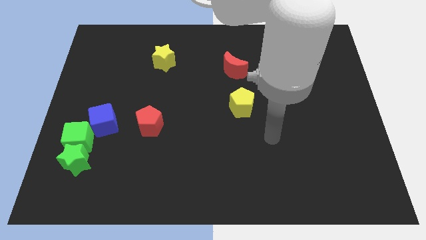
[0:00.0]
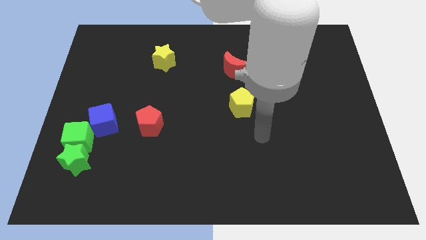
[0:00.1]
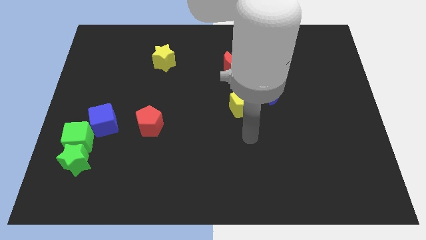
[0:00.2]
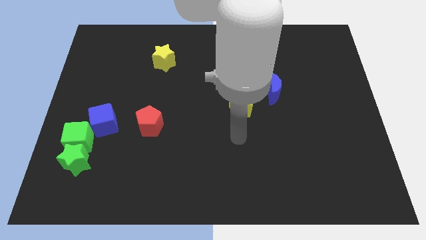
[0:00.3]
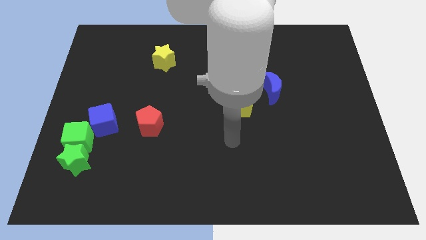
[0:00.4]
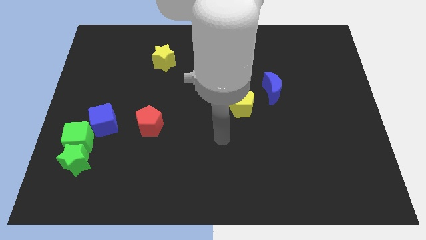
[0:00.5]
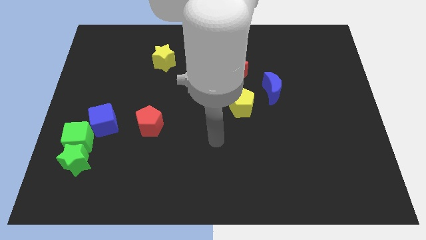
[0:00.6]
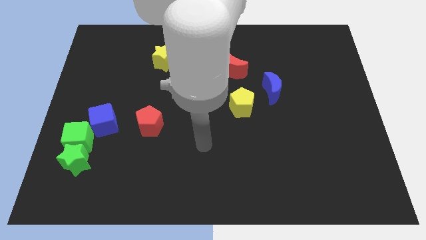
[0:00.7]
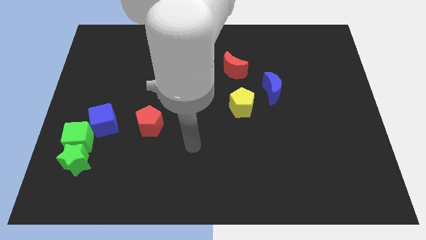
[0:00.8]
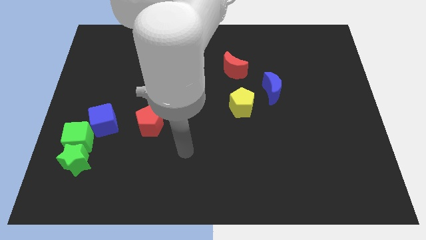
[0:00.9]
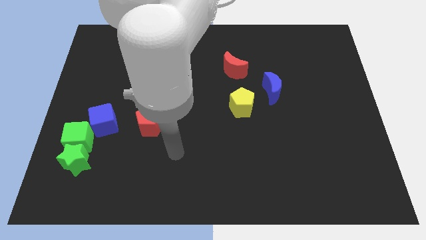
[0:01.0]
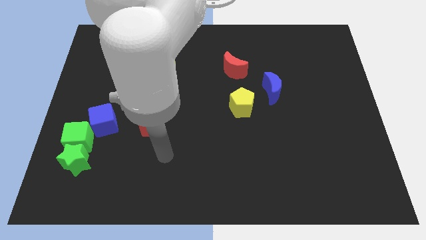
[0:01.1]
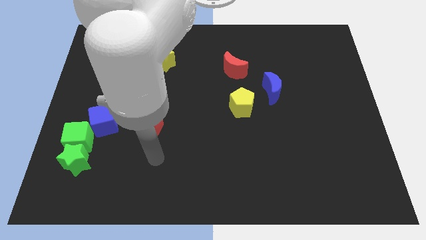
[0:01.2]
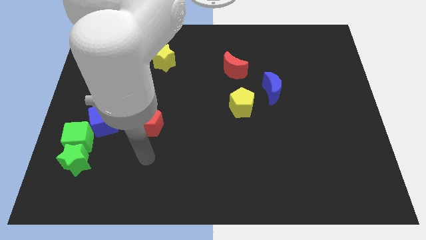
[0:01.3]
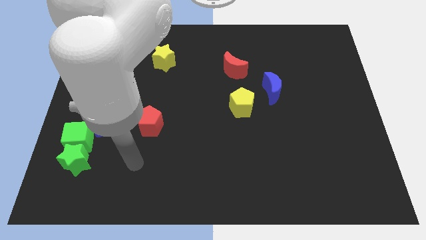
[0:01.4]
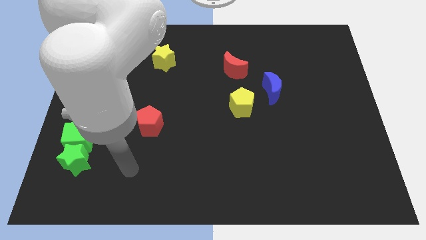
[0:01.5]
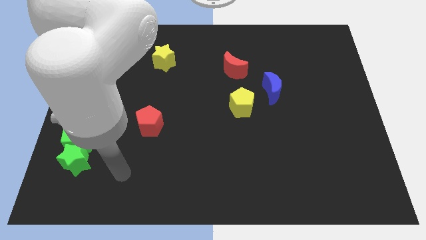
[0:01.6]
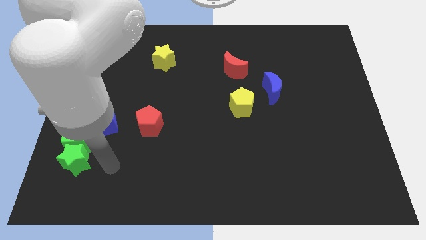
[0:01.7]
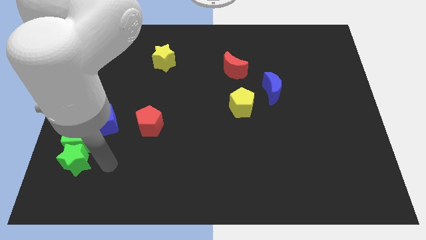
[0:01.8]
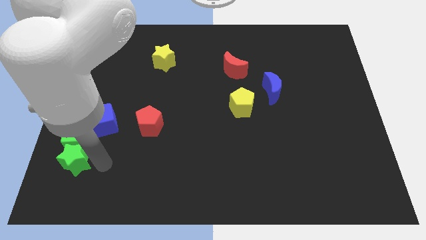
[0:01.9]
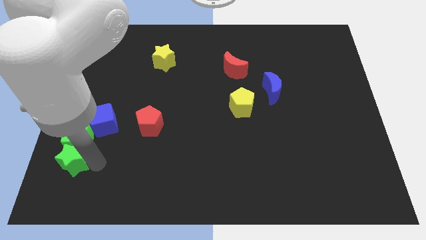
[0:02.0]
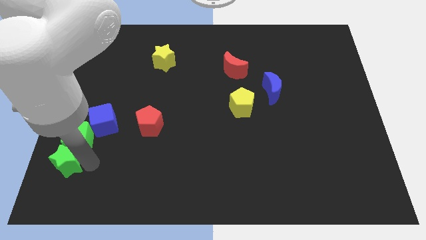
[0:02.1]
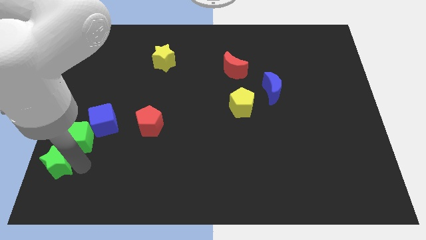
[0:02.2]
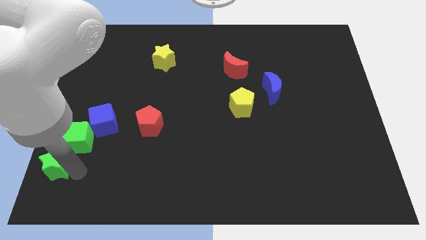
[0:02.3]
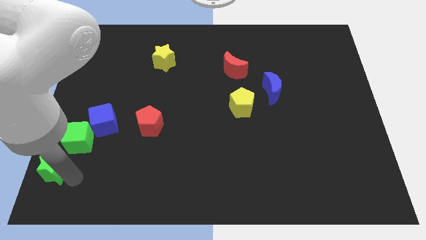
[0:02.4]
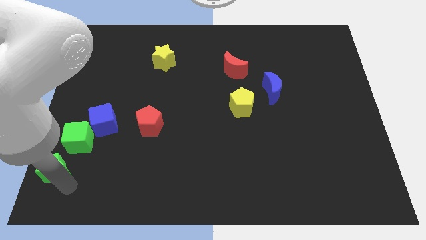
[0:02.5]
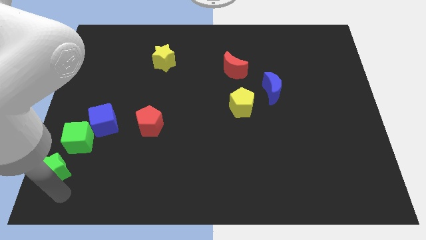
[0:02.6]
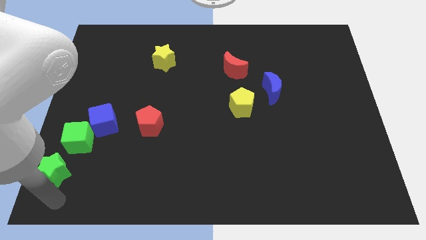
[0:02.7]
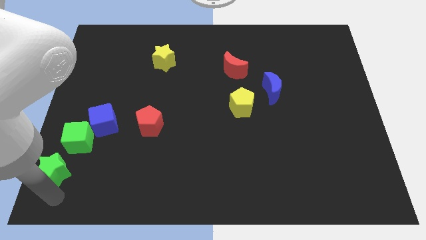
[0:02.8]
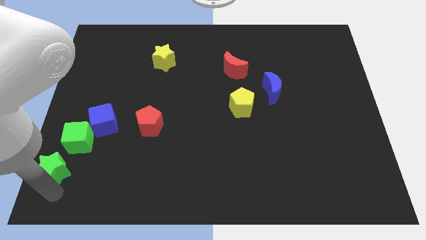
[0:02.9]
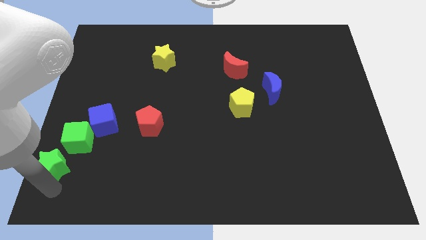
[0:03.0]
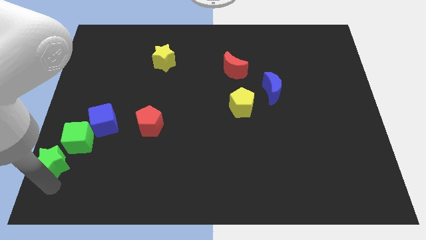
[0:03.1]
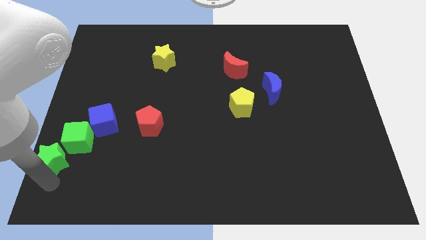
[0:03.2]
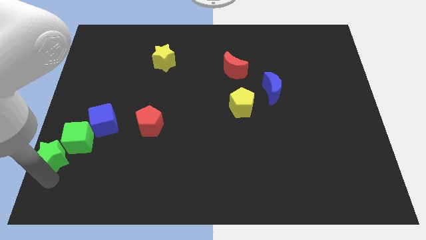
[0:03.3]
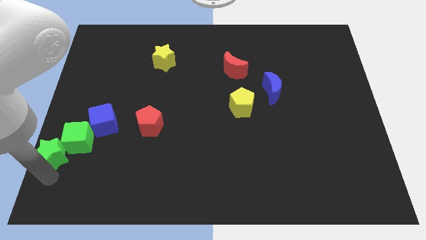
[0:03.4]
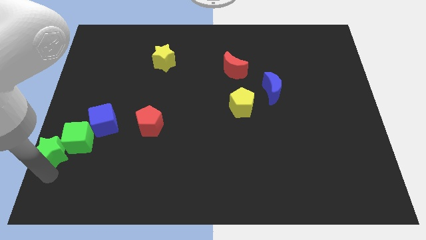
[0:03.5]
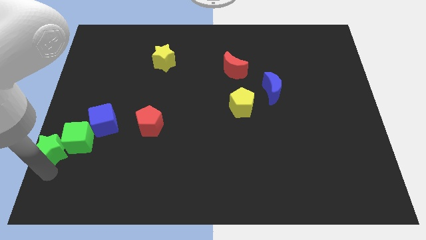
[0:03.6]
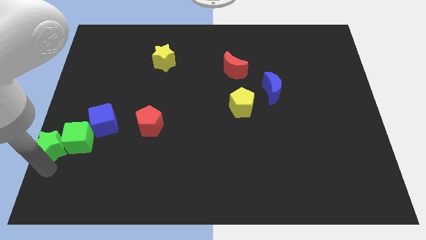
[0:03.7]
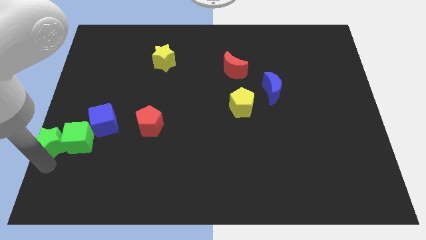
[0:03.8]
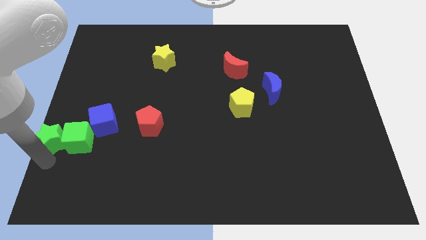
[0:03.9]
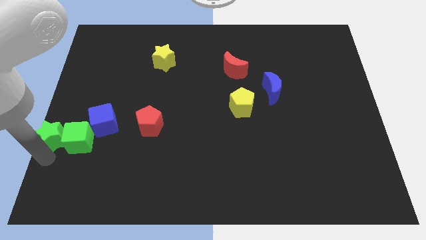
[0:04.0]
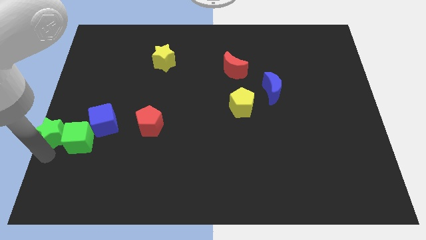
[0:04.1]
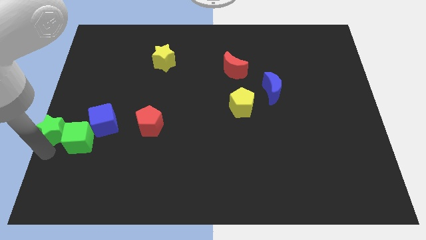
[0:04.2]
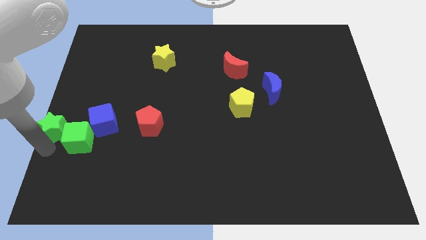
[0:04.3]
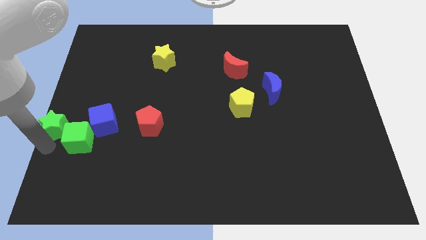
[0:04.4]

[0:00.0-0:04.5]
slide the green star a bit up

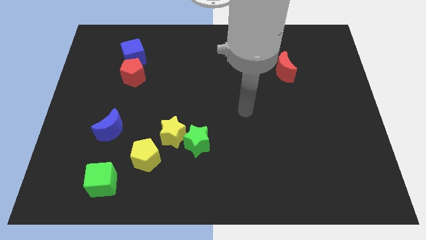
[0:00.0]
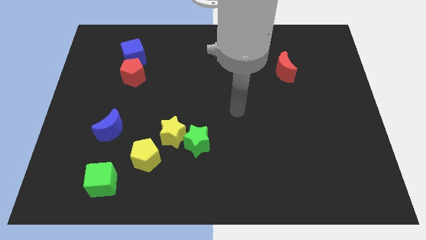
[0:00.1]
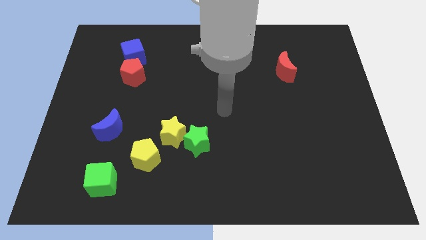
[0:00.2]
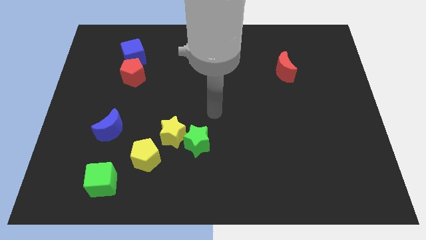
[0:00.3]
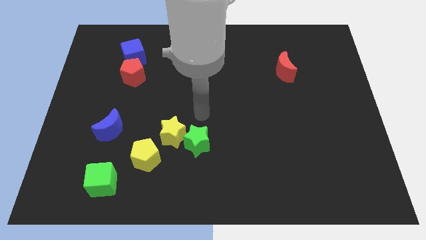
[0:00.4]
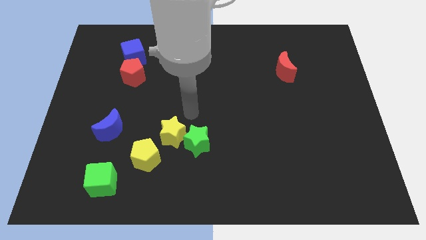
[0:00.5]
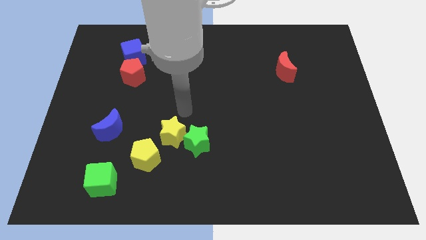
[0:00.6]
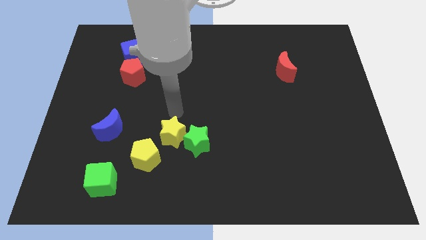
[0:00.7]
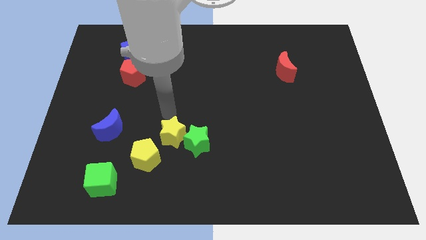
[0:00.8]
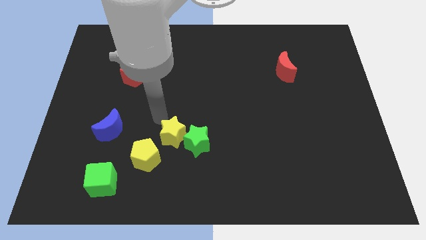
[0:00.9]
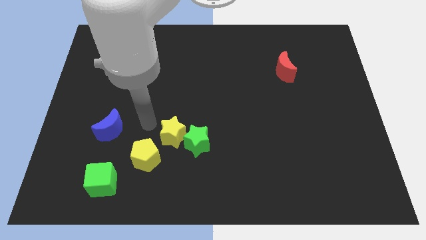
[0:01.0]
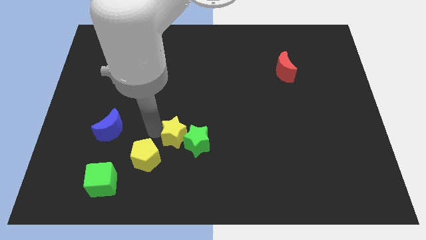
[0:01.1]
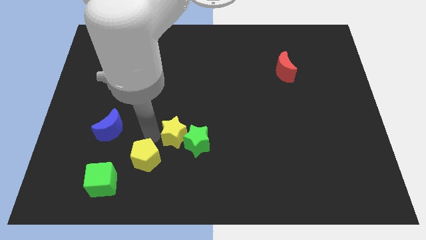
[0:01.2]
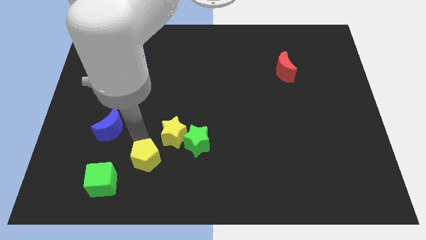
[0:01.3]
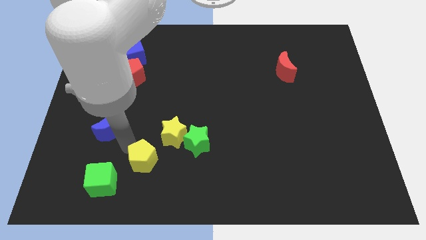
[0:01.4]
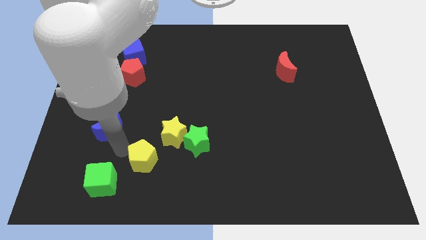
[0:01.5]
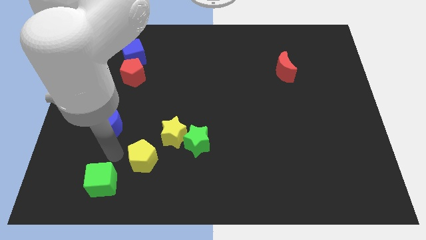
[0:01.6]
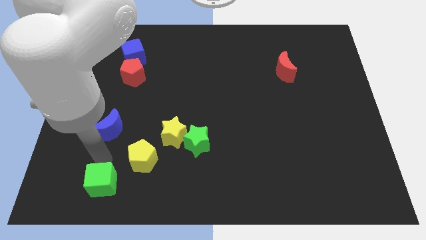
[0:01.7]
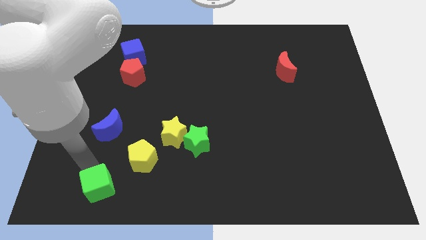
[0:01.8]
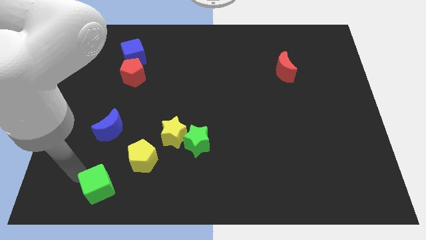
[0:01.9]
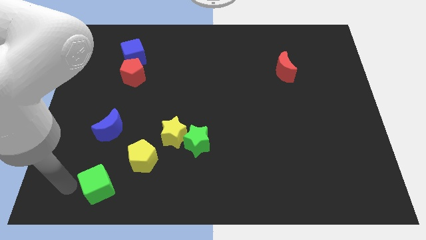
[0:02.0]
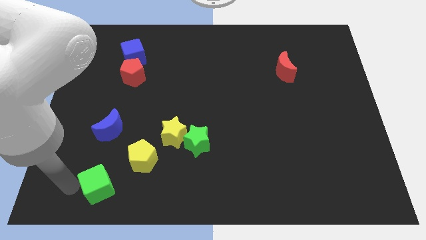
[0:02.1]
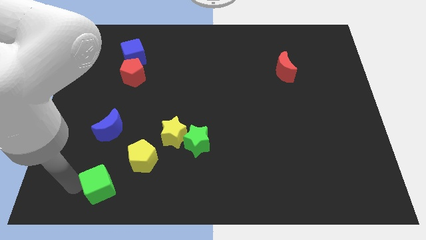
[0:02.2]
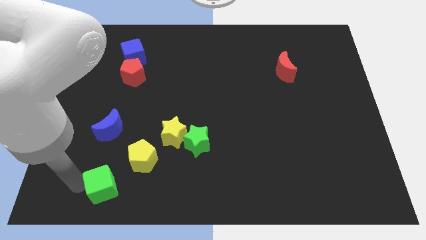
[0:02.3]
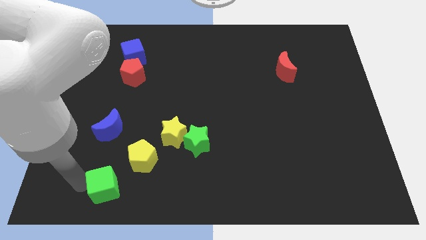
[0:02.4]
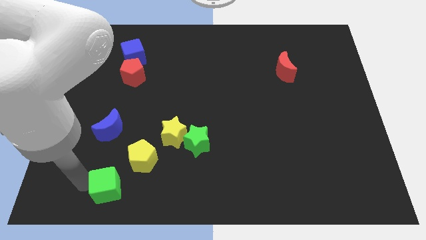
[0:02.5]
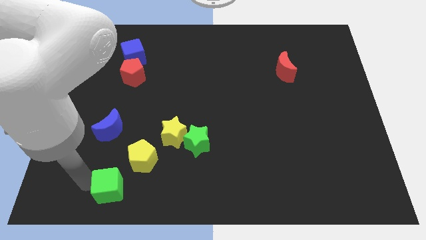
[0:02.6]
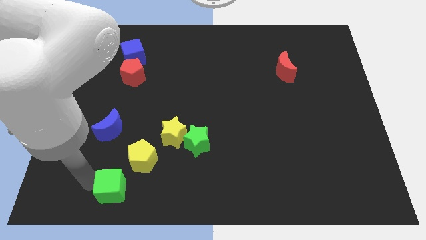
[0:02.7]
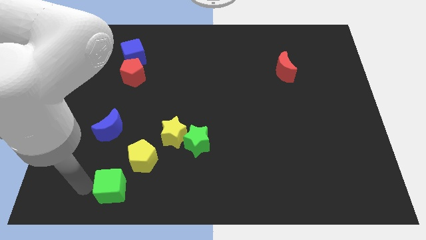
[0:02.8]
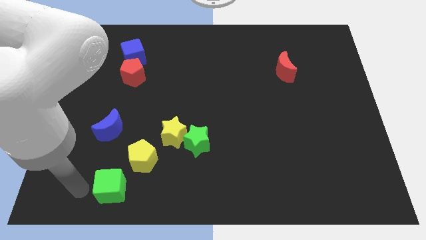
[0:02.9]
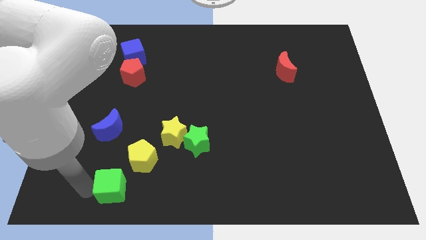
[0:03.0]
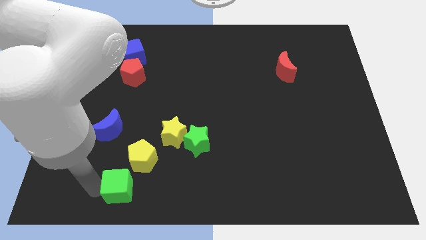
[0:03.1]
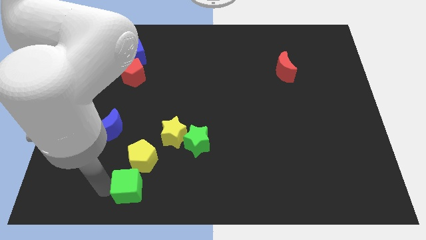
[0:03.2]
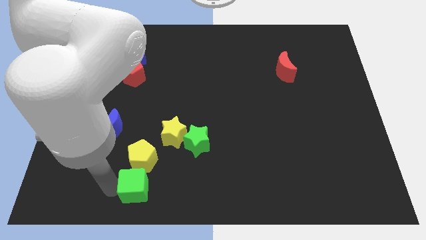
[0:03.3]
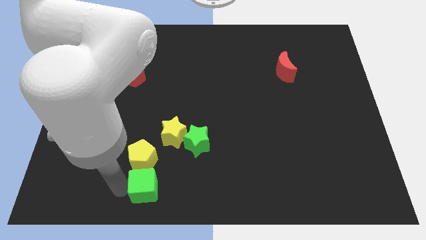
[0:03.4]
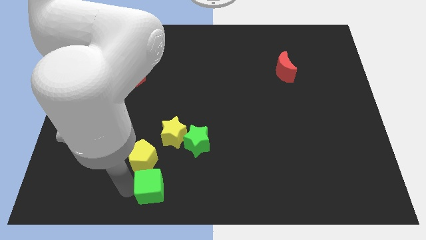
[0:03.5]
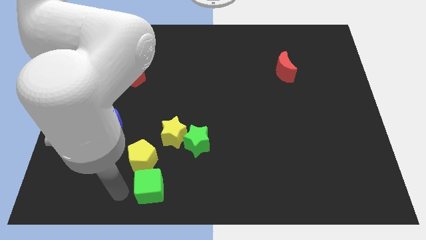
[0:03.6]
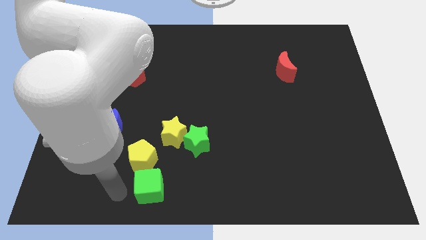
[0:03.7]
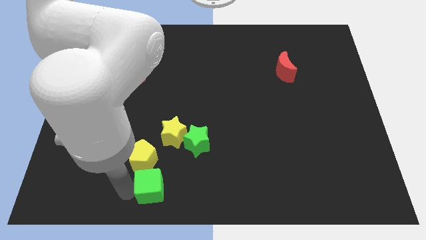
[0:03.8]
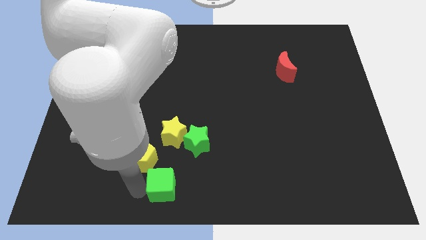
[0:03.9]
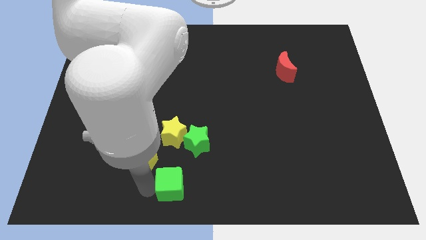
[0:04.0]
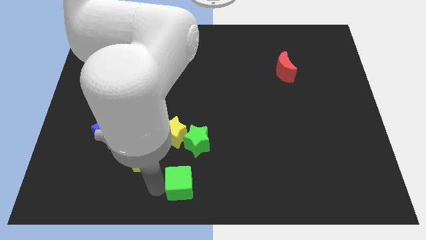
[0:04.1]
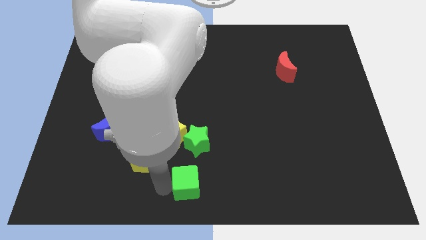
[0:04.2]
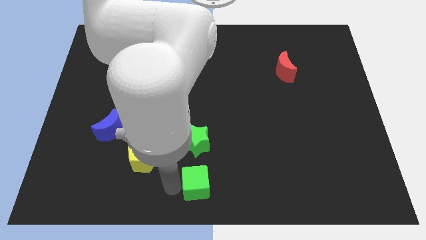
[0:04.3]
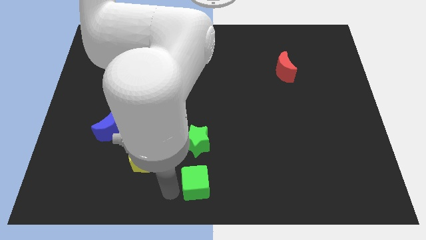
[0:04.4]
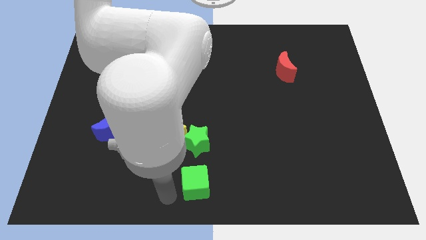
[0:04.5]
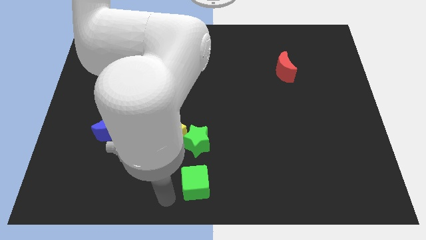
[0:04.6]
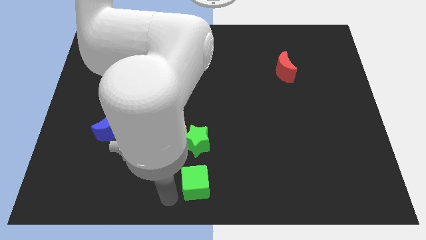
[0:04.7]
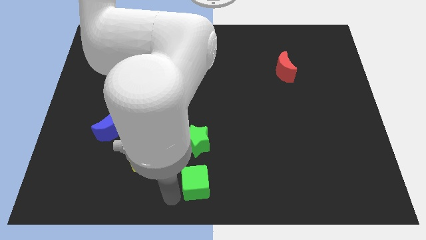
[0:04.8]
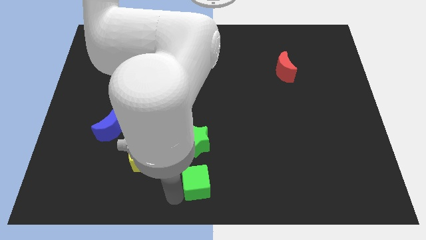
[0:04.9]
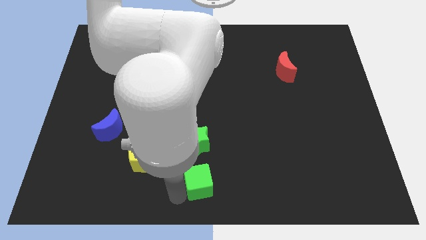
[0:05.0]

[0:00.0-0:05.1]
move the green cube right
